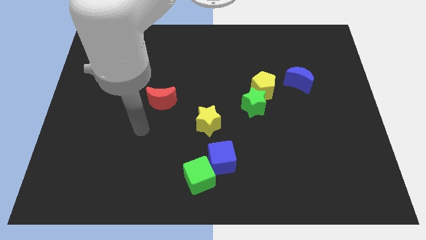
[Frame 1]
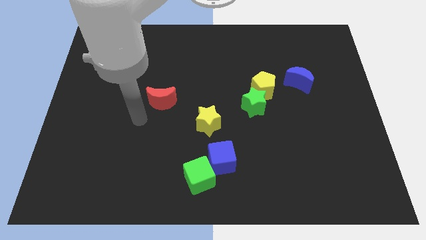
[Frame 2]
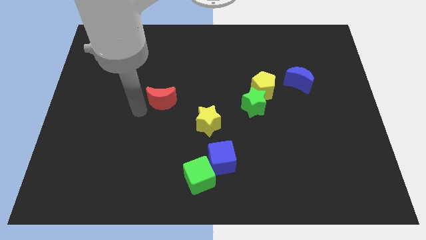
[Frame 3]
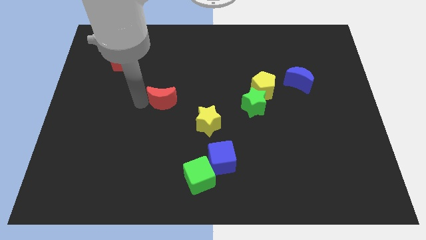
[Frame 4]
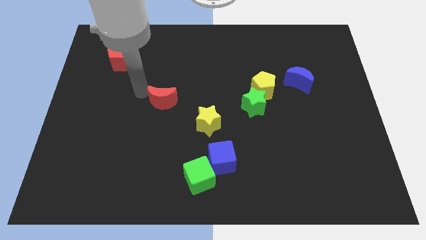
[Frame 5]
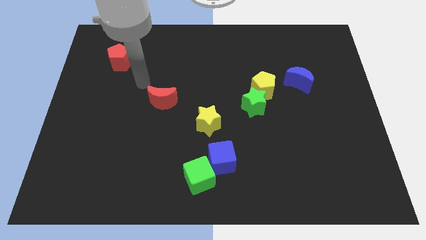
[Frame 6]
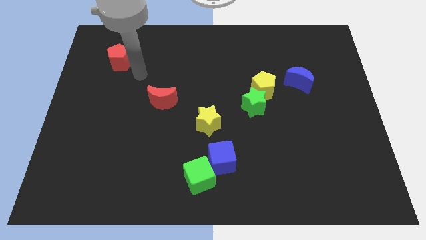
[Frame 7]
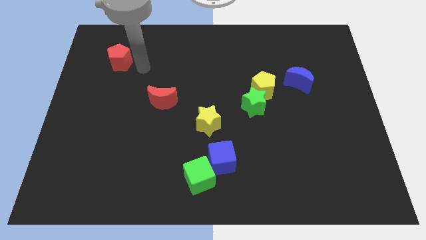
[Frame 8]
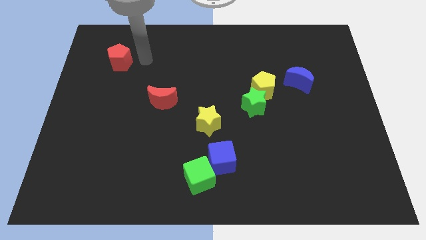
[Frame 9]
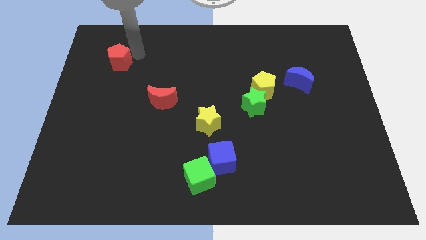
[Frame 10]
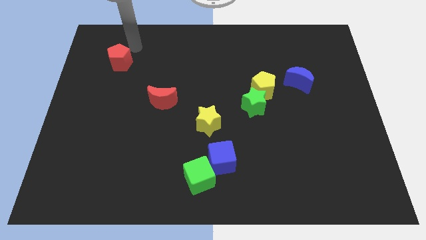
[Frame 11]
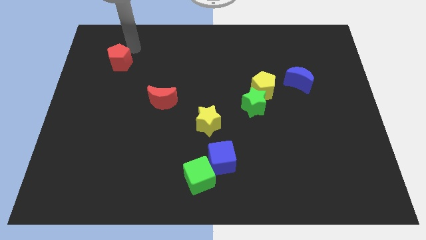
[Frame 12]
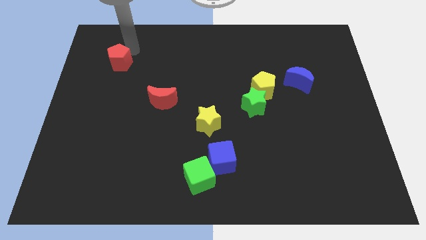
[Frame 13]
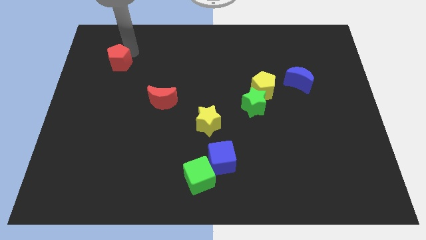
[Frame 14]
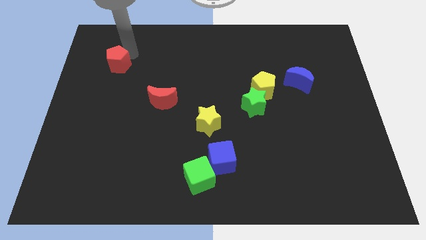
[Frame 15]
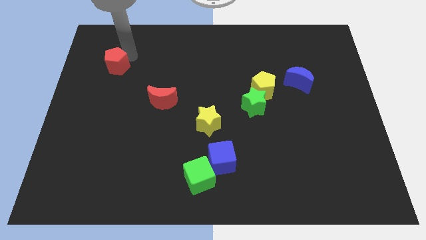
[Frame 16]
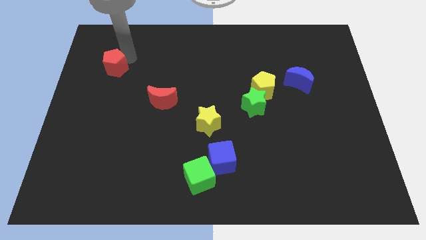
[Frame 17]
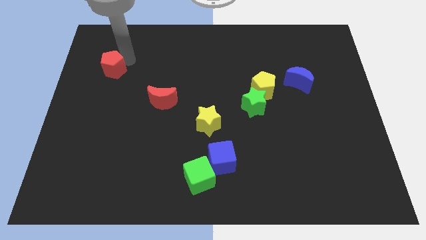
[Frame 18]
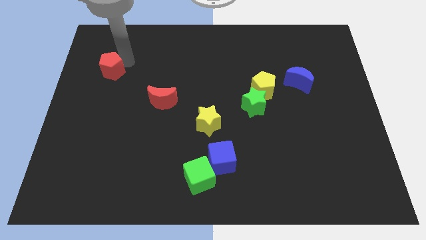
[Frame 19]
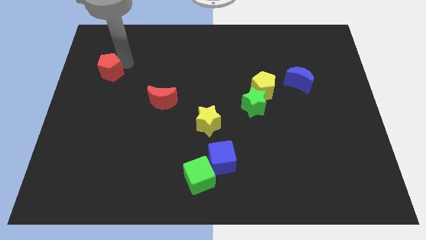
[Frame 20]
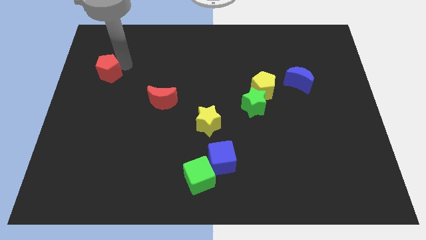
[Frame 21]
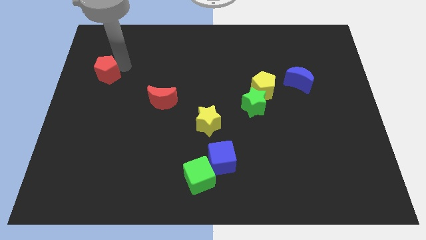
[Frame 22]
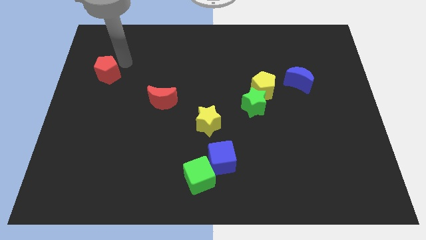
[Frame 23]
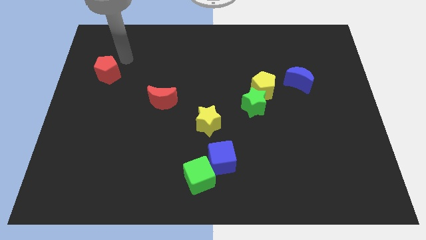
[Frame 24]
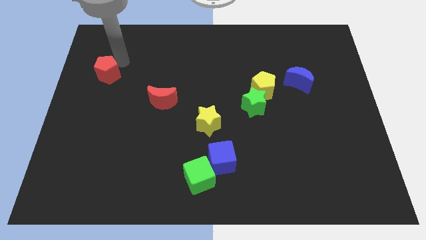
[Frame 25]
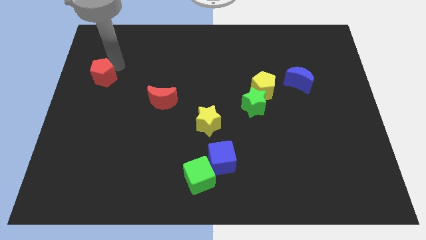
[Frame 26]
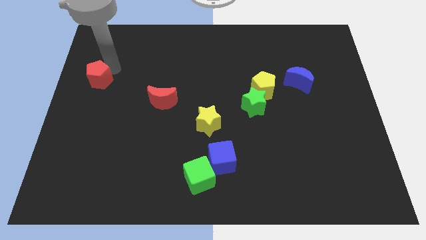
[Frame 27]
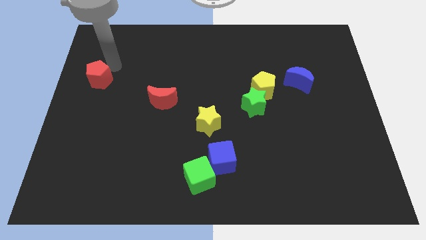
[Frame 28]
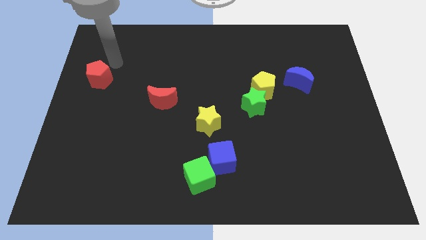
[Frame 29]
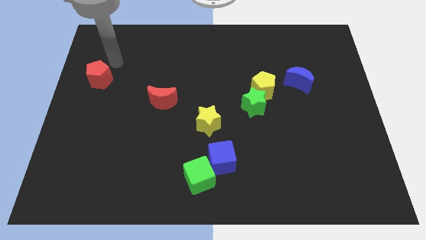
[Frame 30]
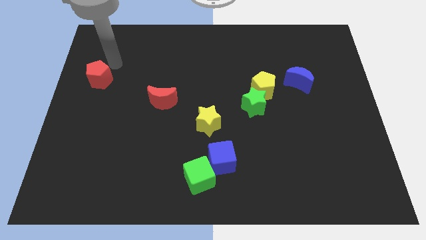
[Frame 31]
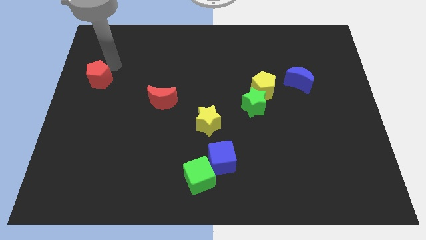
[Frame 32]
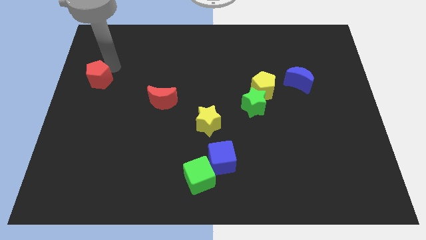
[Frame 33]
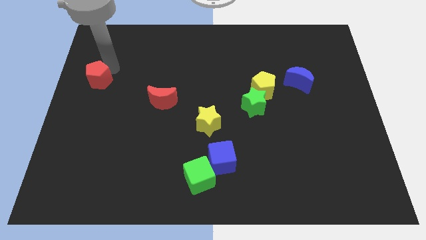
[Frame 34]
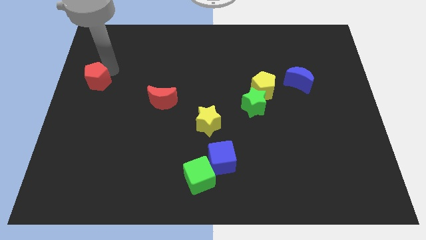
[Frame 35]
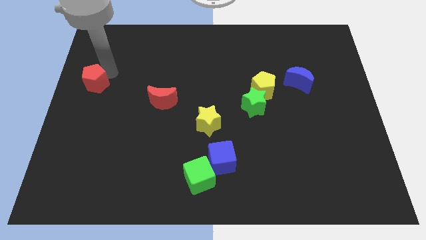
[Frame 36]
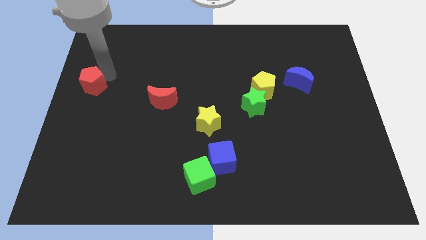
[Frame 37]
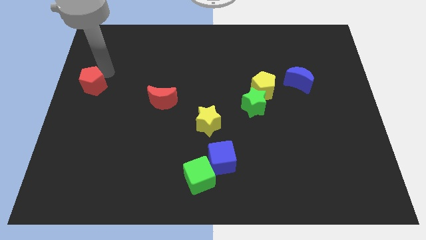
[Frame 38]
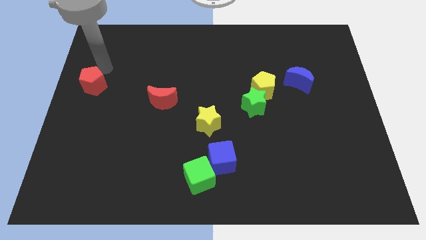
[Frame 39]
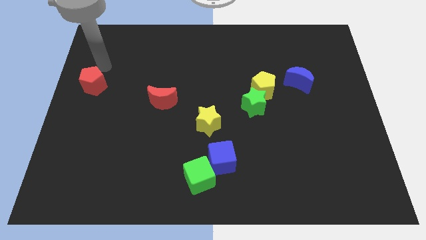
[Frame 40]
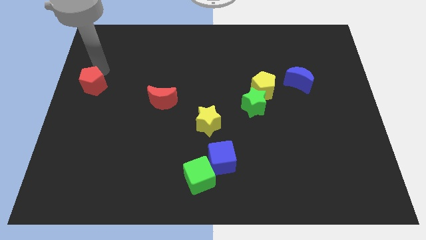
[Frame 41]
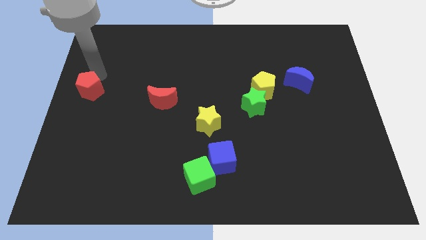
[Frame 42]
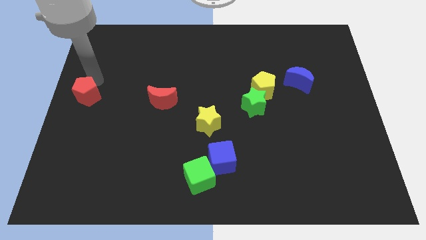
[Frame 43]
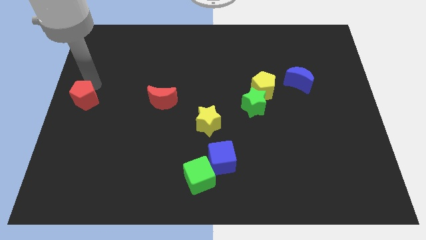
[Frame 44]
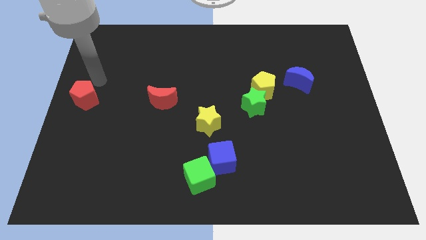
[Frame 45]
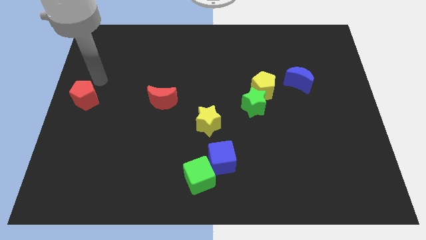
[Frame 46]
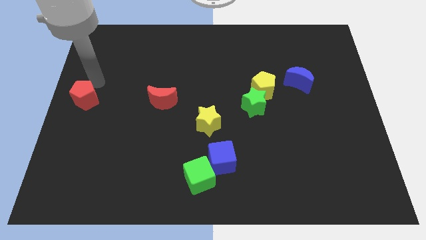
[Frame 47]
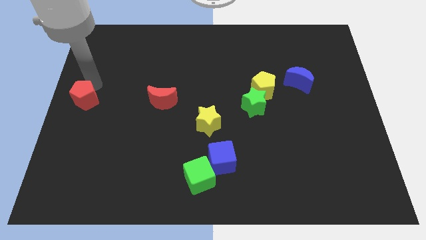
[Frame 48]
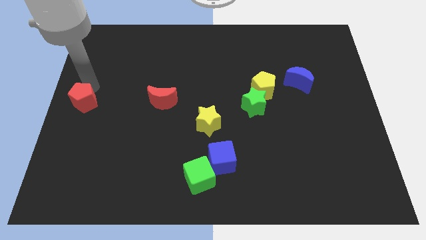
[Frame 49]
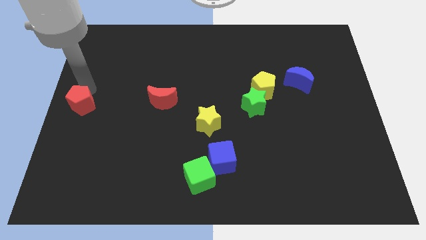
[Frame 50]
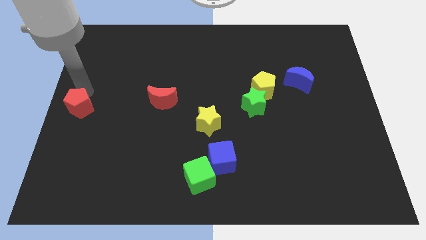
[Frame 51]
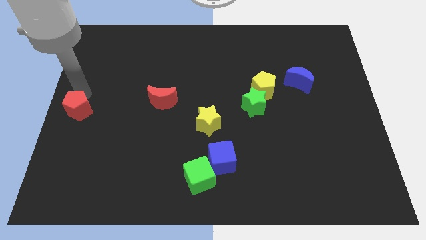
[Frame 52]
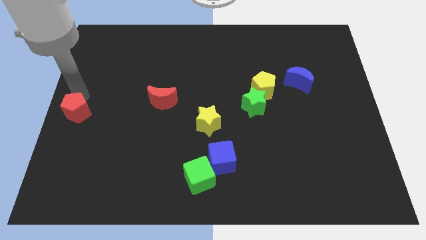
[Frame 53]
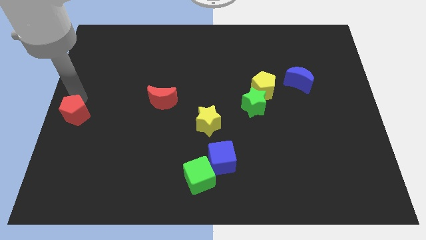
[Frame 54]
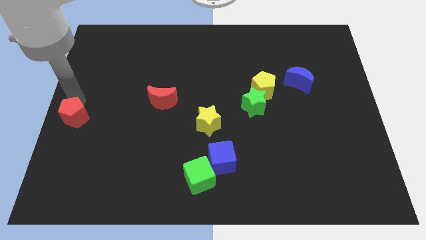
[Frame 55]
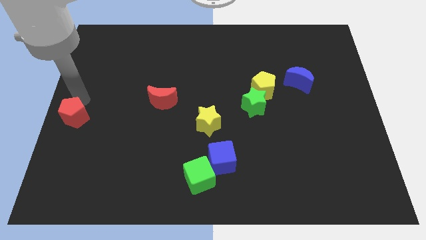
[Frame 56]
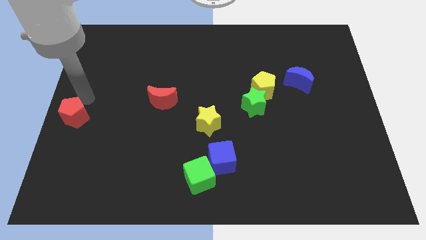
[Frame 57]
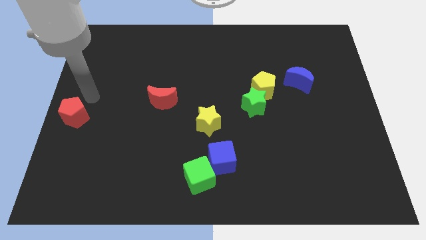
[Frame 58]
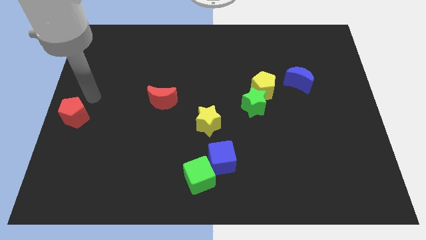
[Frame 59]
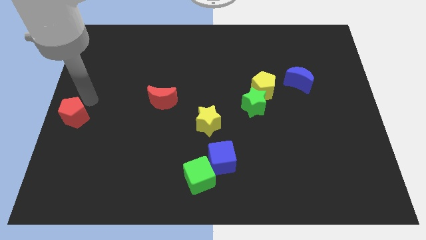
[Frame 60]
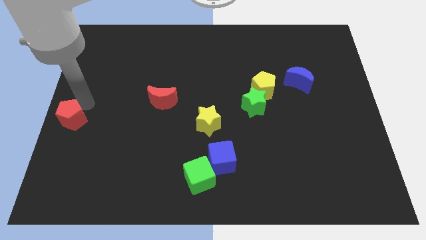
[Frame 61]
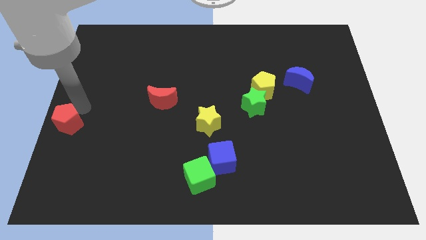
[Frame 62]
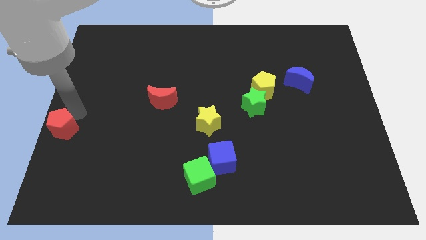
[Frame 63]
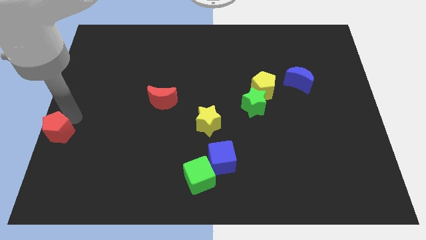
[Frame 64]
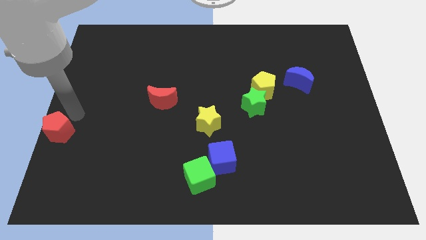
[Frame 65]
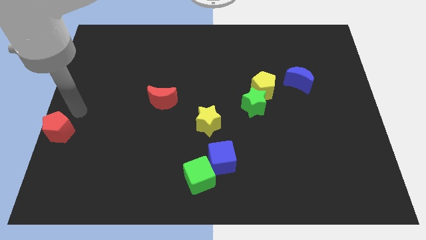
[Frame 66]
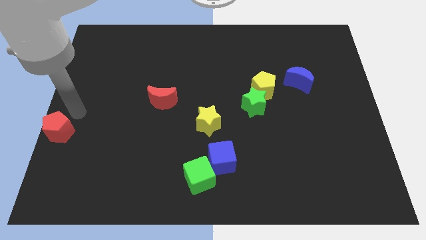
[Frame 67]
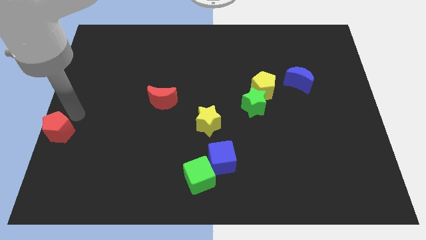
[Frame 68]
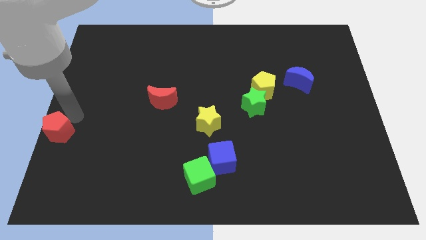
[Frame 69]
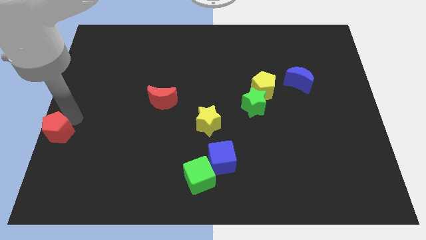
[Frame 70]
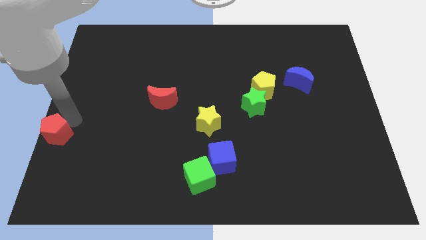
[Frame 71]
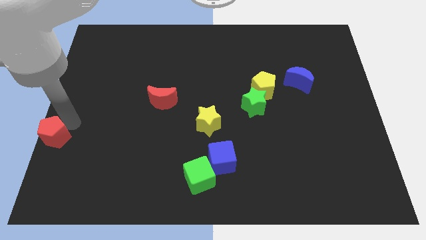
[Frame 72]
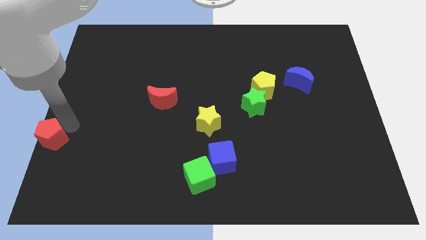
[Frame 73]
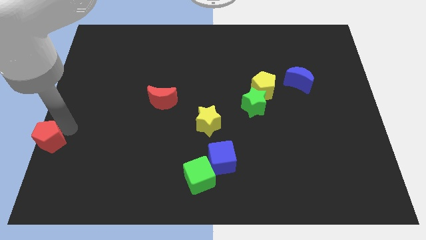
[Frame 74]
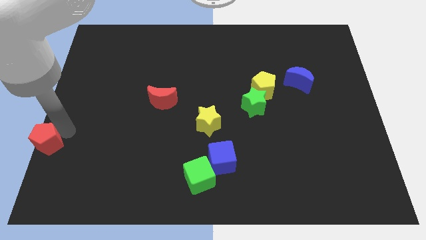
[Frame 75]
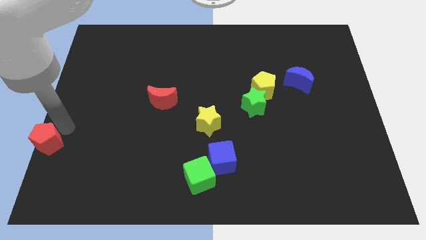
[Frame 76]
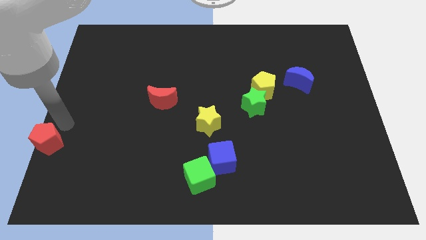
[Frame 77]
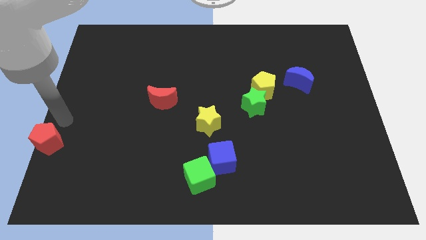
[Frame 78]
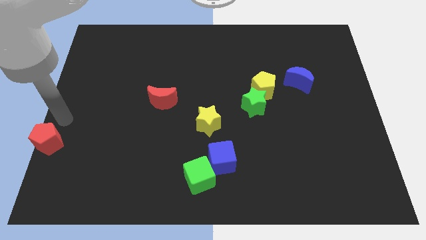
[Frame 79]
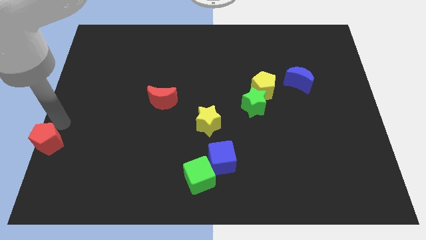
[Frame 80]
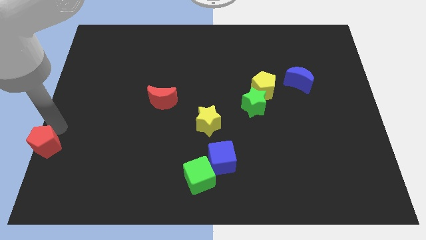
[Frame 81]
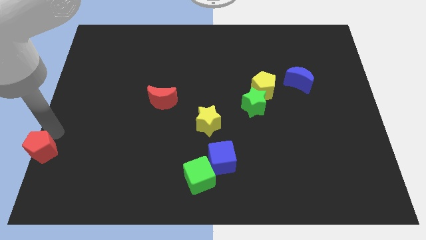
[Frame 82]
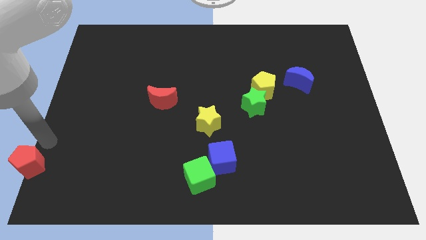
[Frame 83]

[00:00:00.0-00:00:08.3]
push the red pentagon to the bottom left
